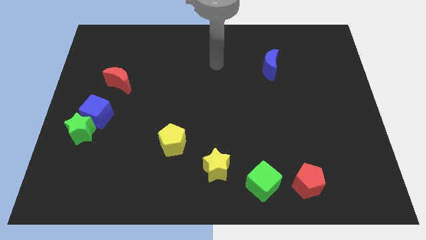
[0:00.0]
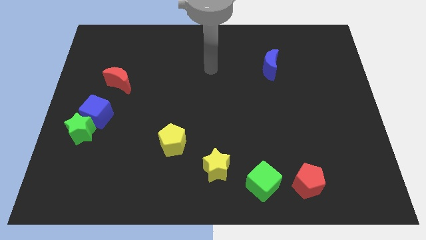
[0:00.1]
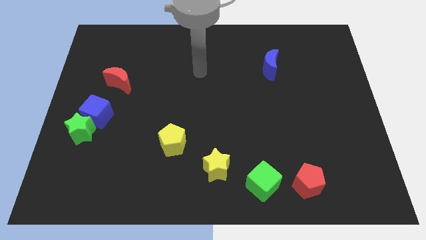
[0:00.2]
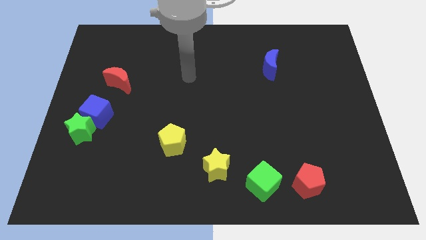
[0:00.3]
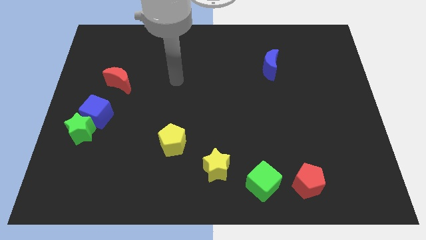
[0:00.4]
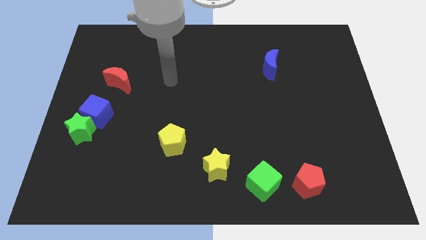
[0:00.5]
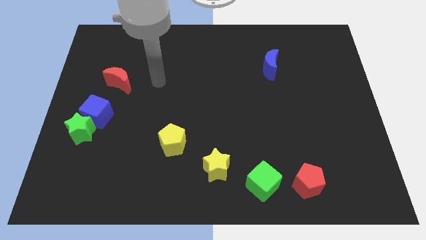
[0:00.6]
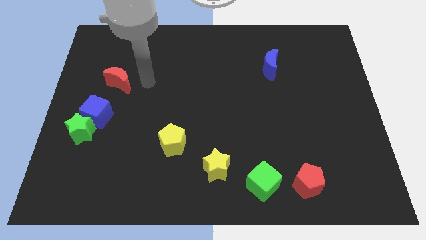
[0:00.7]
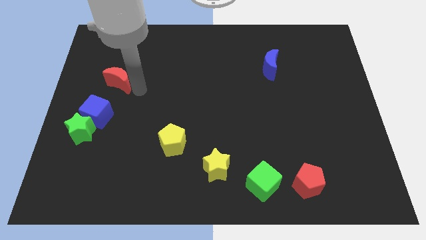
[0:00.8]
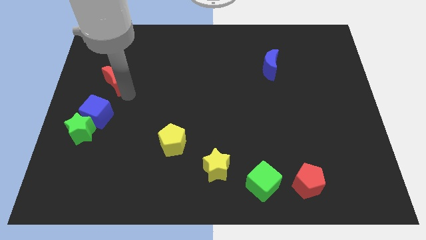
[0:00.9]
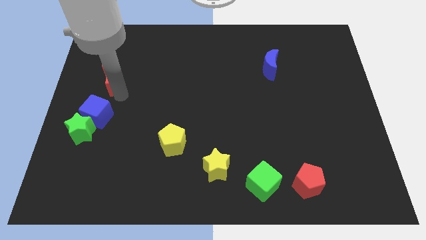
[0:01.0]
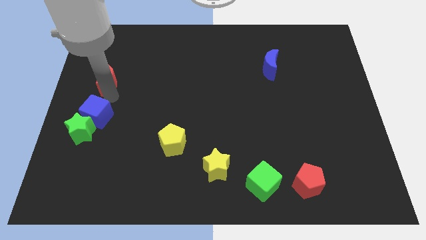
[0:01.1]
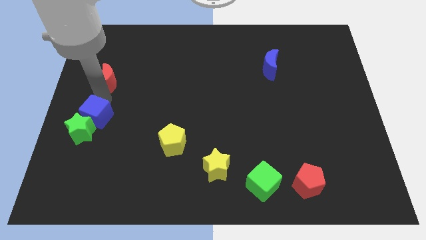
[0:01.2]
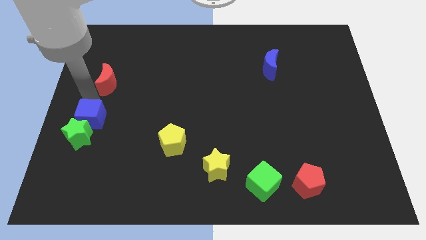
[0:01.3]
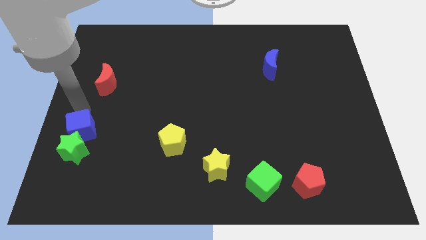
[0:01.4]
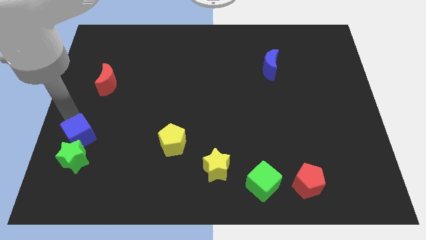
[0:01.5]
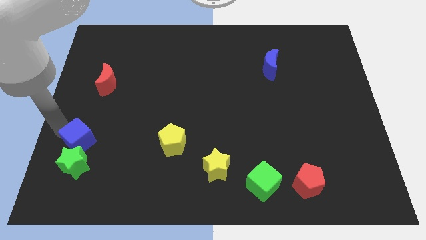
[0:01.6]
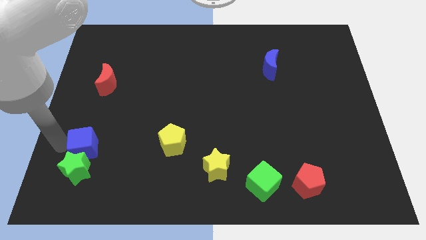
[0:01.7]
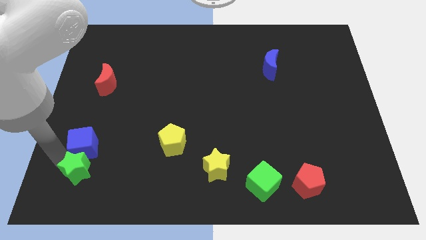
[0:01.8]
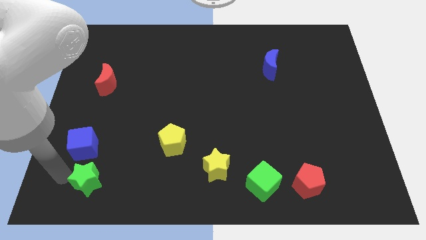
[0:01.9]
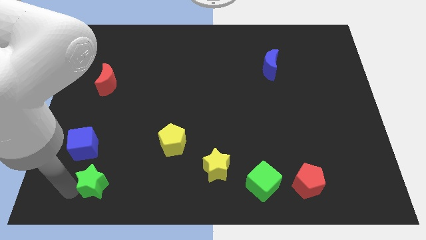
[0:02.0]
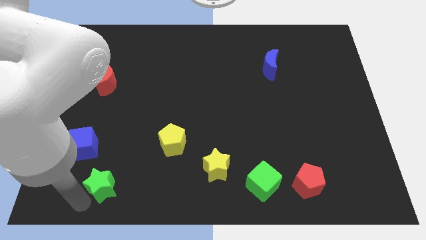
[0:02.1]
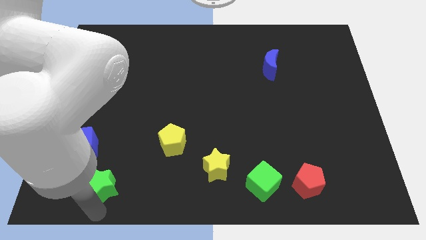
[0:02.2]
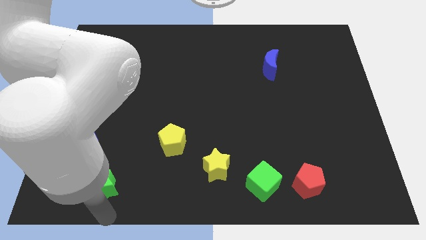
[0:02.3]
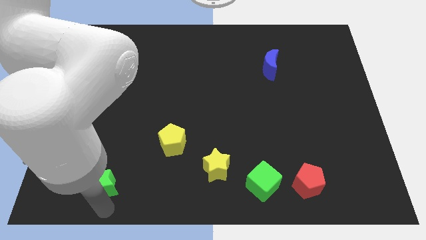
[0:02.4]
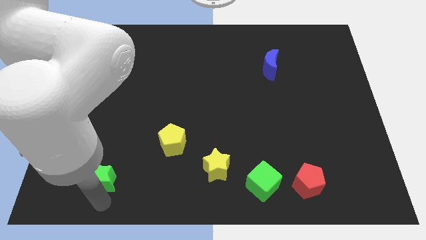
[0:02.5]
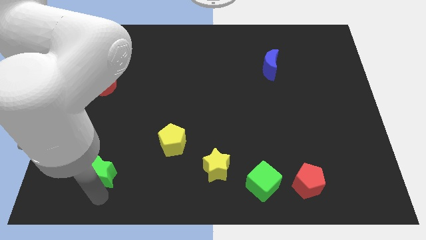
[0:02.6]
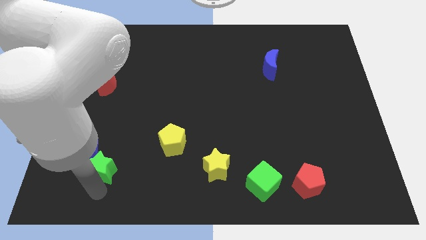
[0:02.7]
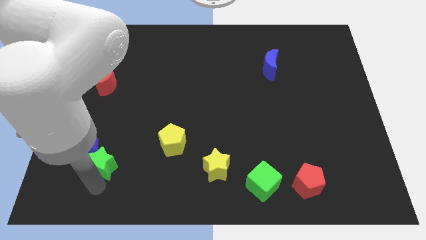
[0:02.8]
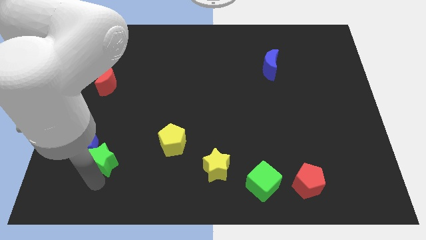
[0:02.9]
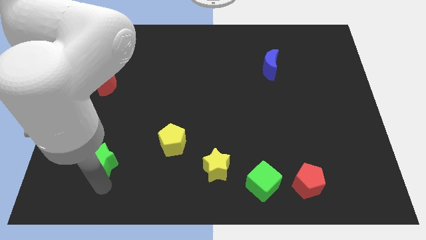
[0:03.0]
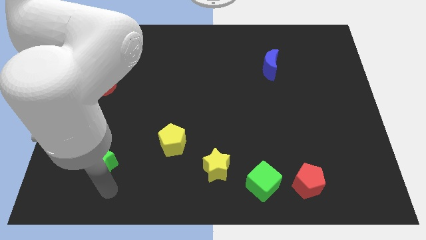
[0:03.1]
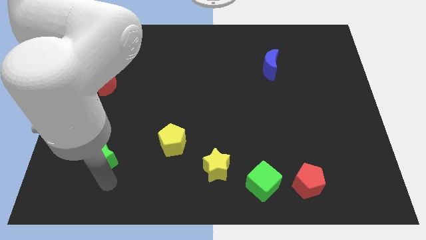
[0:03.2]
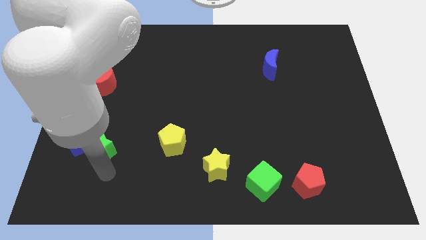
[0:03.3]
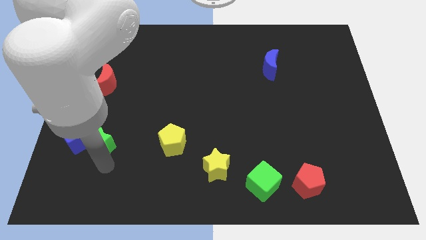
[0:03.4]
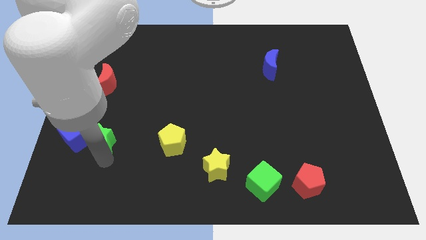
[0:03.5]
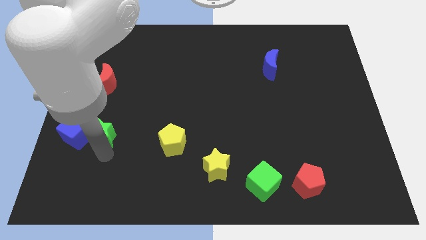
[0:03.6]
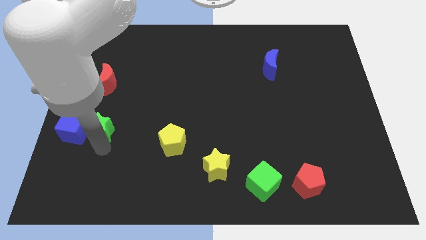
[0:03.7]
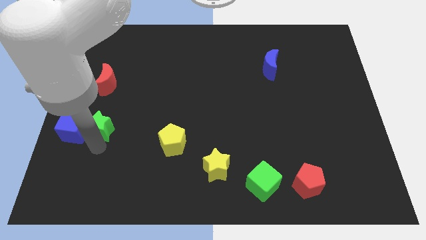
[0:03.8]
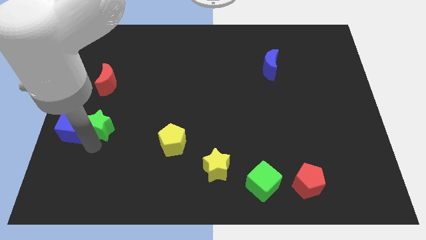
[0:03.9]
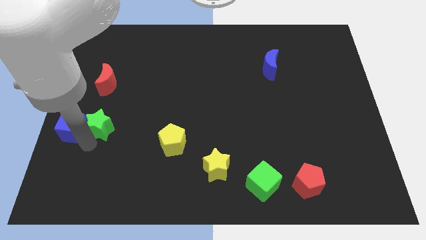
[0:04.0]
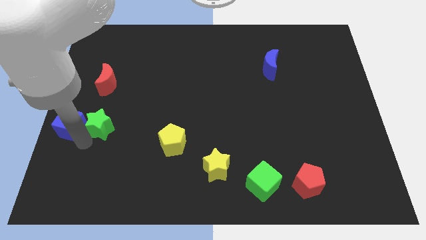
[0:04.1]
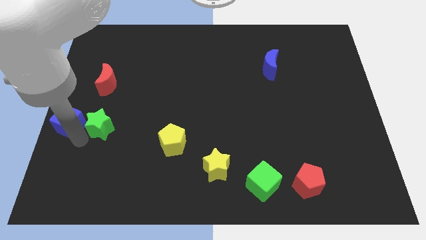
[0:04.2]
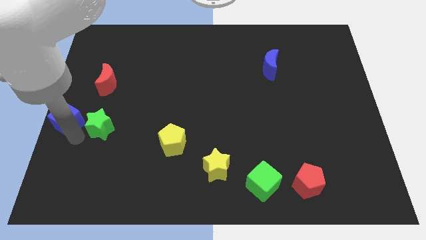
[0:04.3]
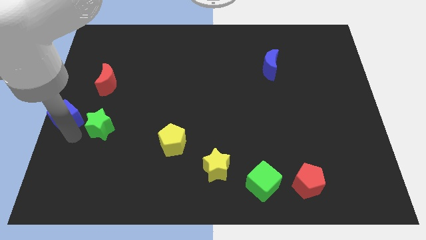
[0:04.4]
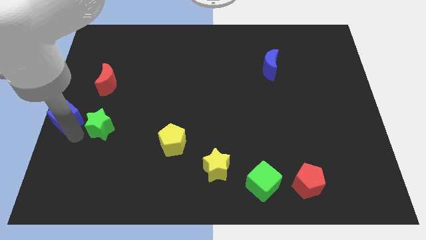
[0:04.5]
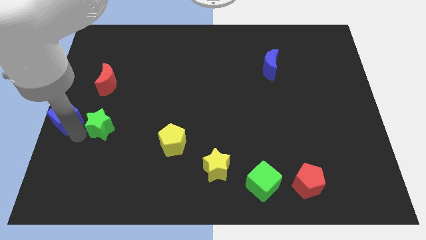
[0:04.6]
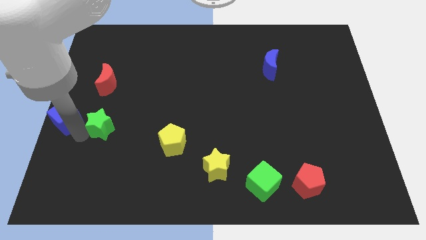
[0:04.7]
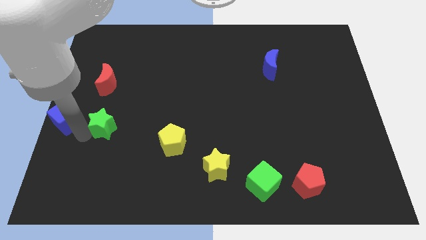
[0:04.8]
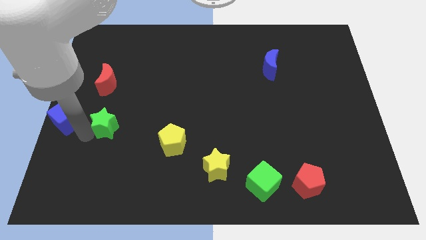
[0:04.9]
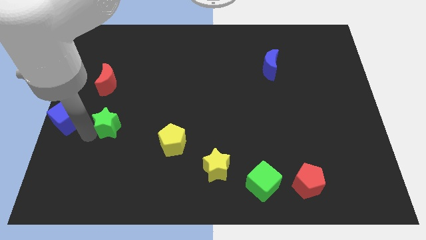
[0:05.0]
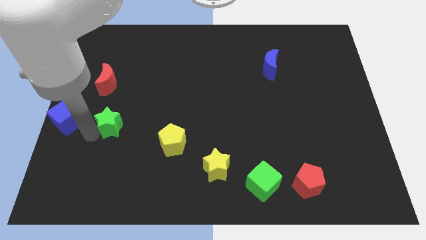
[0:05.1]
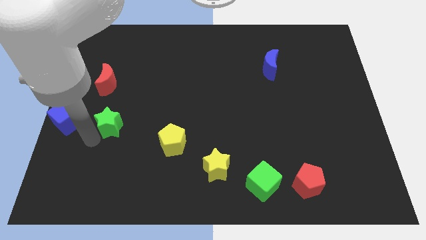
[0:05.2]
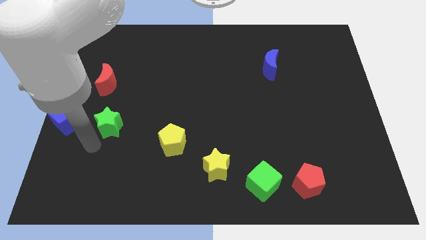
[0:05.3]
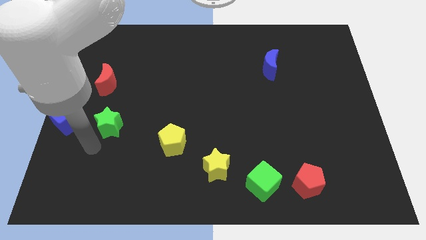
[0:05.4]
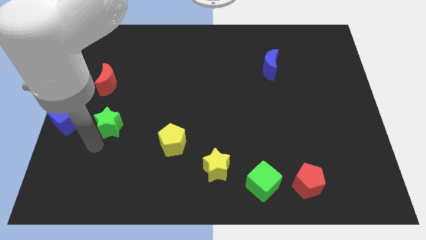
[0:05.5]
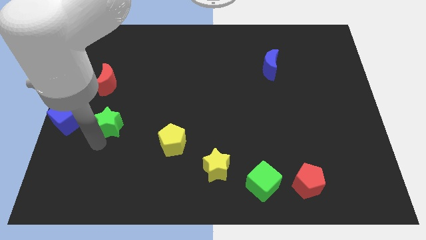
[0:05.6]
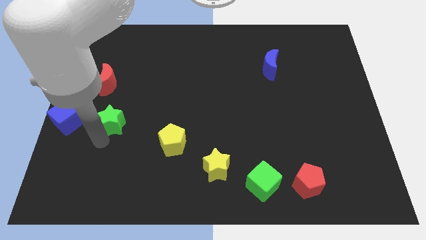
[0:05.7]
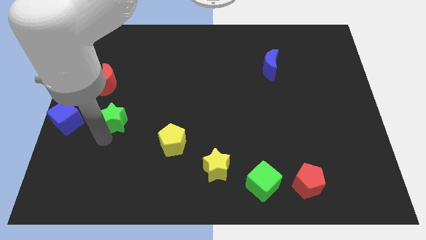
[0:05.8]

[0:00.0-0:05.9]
slide the green star up and to the right slightly

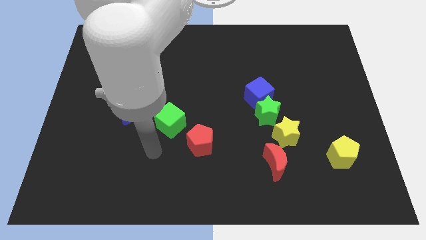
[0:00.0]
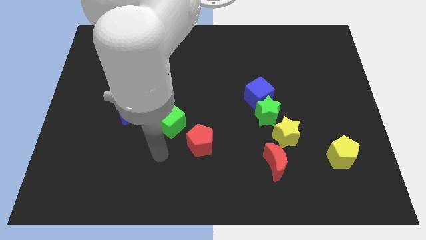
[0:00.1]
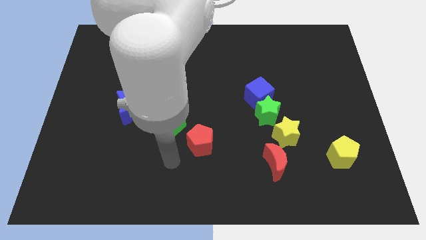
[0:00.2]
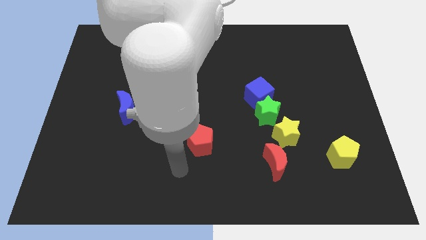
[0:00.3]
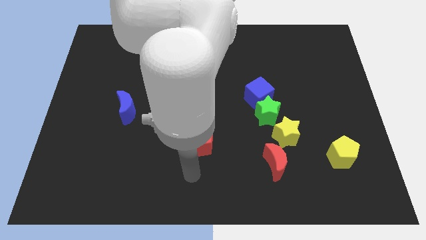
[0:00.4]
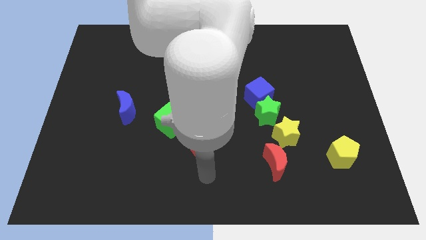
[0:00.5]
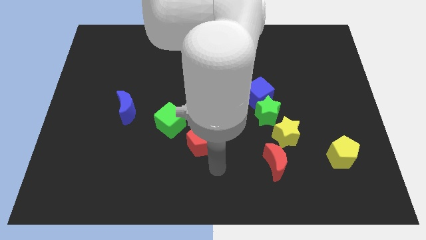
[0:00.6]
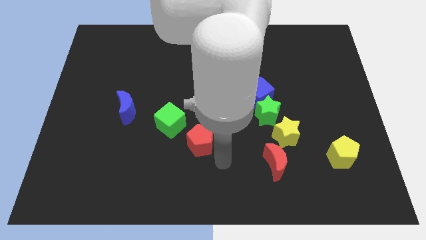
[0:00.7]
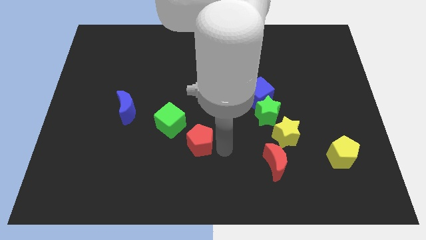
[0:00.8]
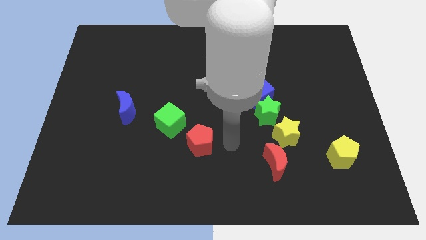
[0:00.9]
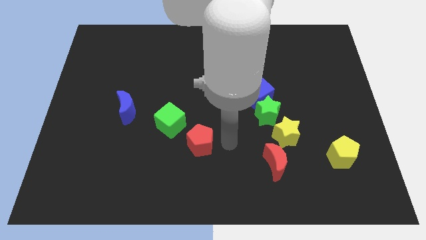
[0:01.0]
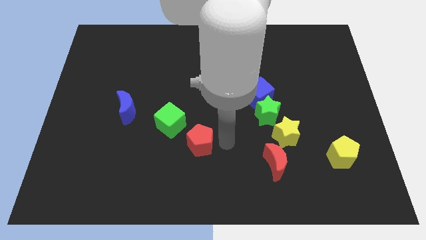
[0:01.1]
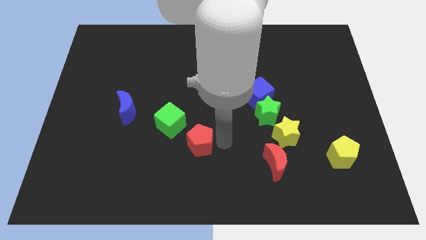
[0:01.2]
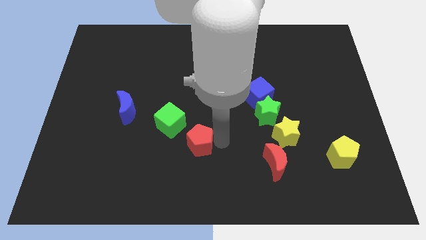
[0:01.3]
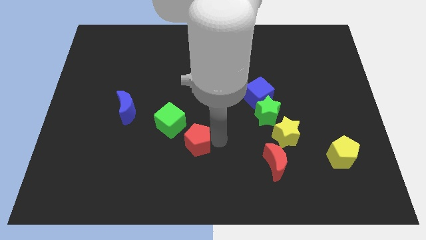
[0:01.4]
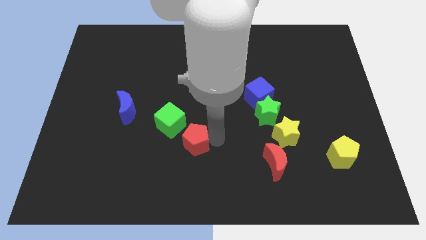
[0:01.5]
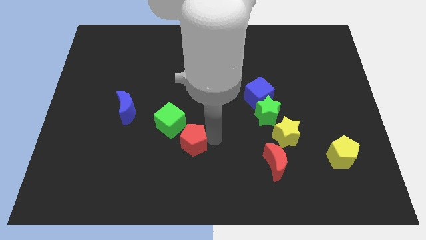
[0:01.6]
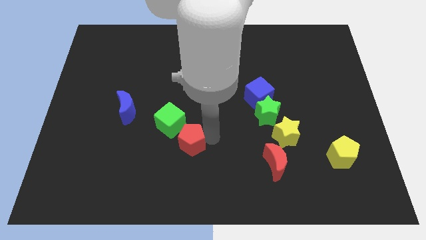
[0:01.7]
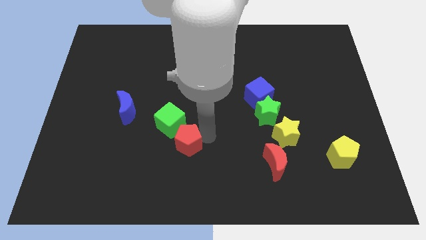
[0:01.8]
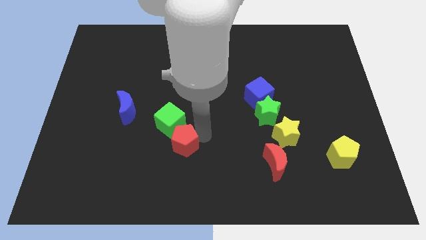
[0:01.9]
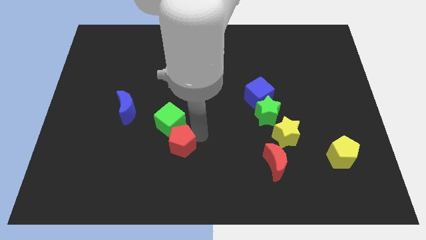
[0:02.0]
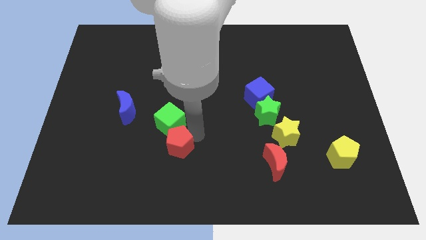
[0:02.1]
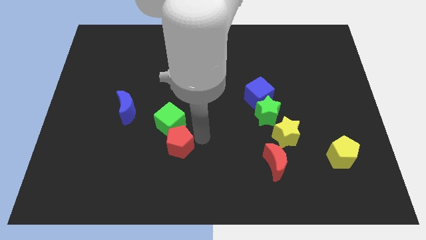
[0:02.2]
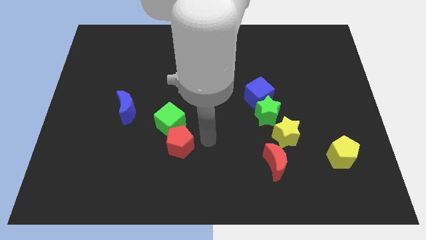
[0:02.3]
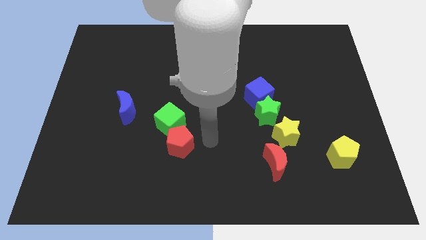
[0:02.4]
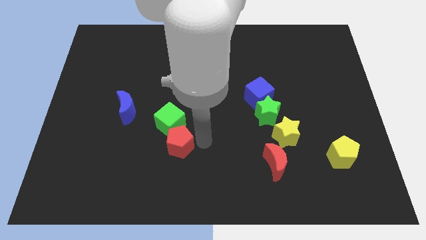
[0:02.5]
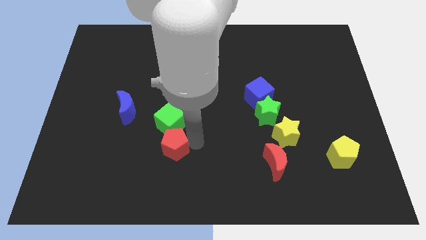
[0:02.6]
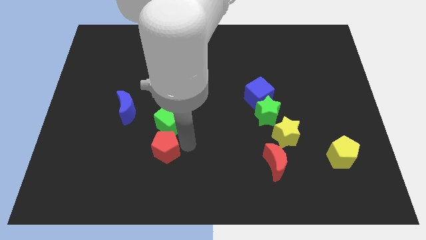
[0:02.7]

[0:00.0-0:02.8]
move the red pentagon to the left a little bit
